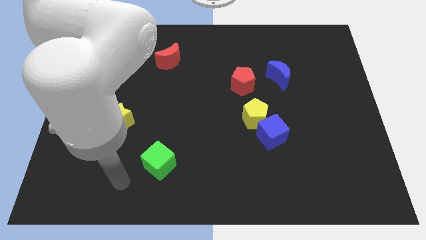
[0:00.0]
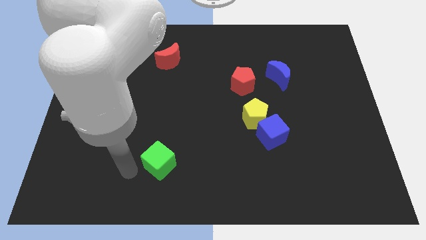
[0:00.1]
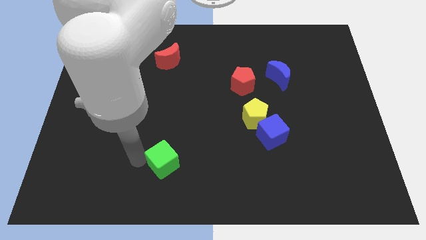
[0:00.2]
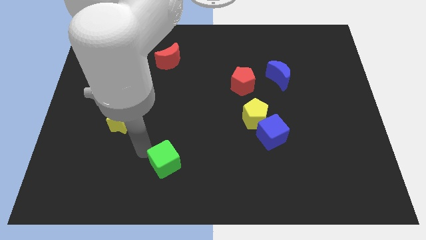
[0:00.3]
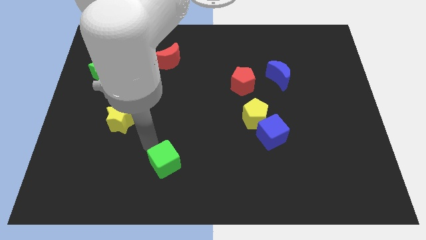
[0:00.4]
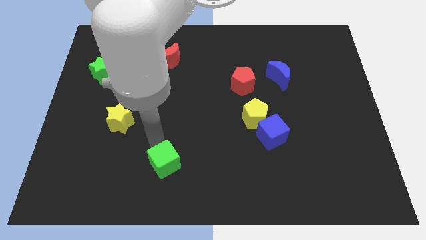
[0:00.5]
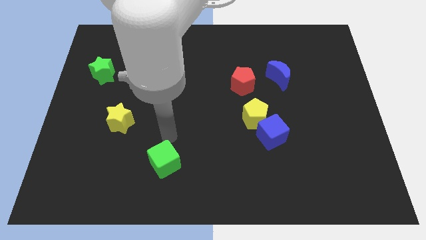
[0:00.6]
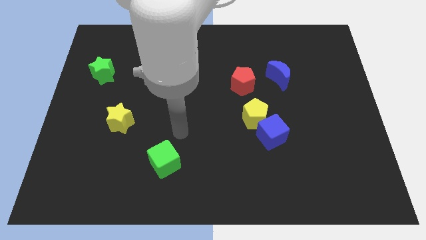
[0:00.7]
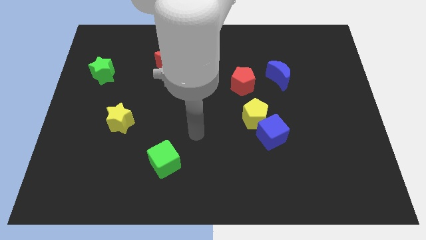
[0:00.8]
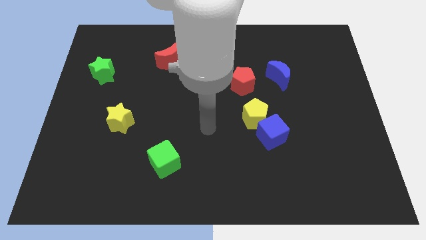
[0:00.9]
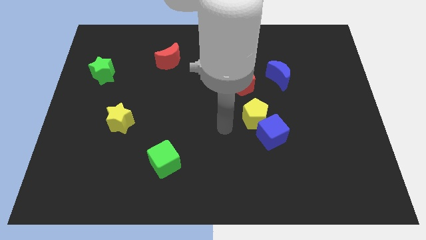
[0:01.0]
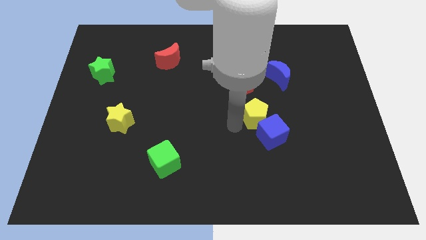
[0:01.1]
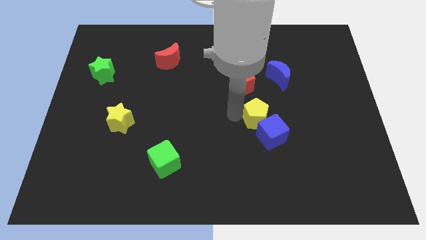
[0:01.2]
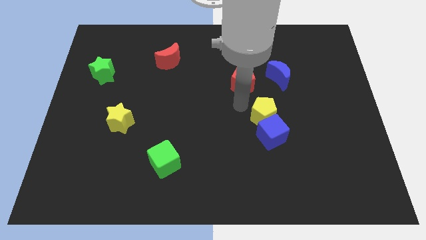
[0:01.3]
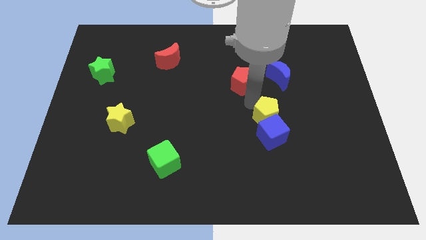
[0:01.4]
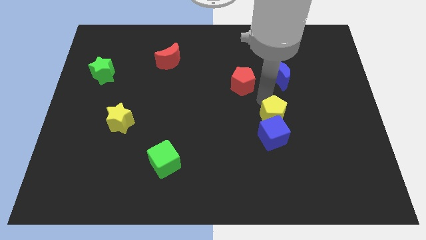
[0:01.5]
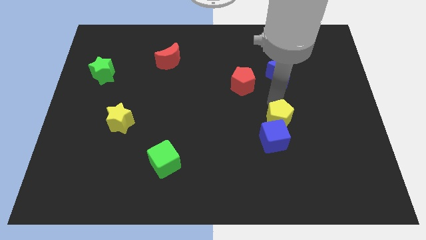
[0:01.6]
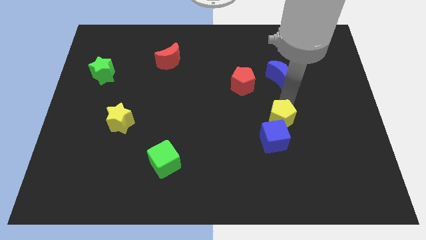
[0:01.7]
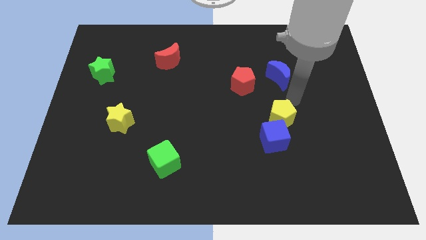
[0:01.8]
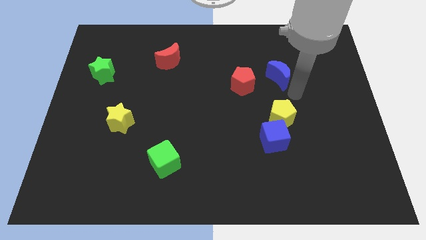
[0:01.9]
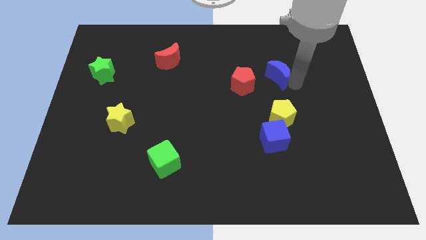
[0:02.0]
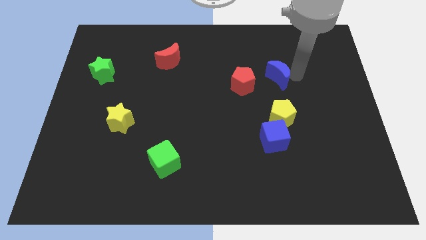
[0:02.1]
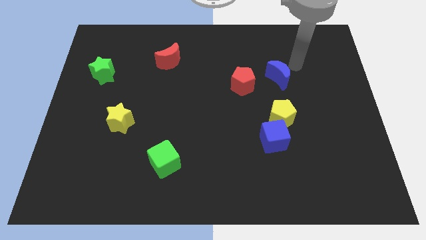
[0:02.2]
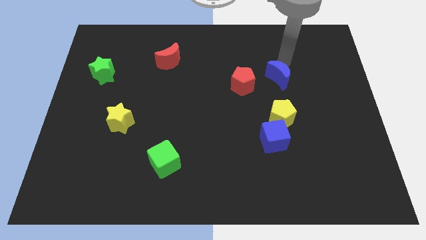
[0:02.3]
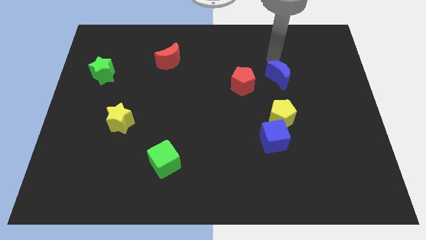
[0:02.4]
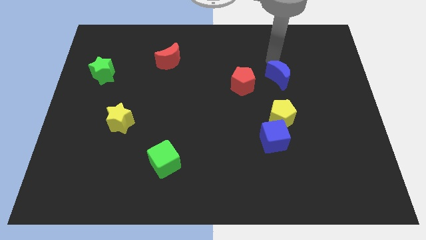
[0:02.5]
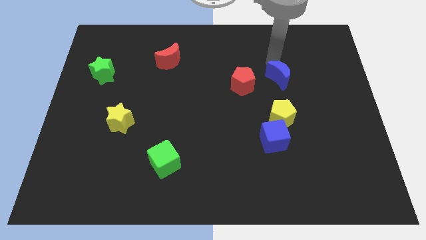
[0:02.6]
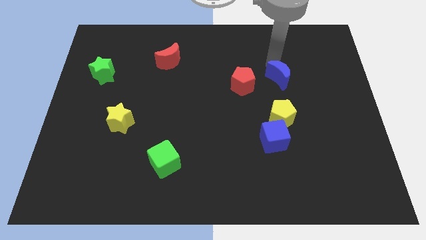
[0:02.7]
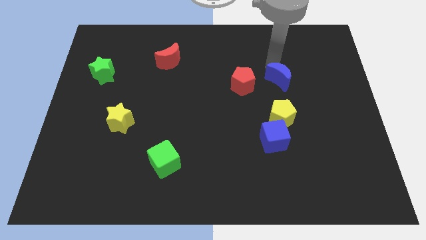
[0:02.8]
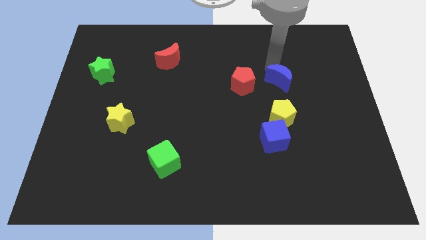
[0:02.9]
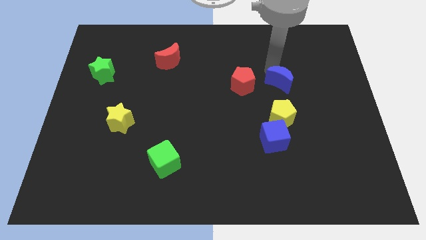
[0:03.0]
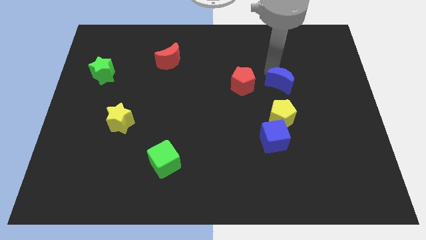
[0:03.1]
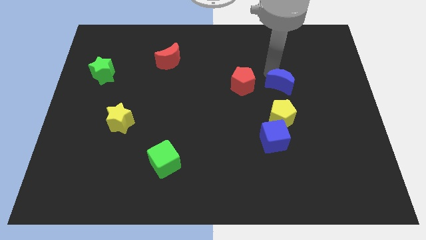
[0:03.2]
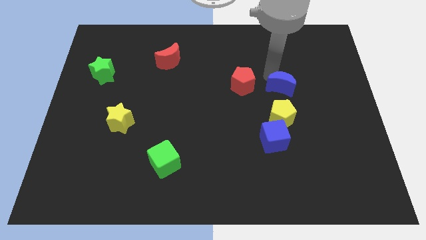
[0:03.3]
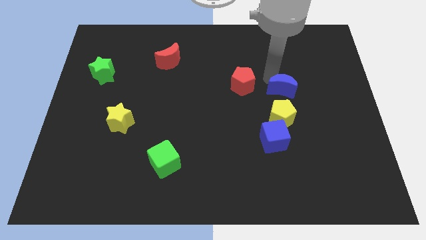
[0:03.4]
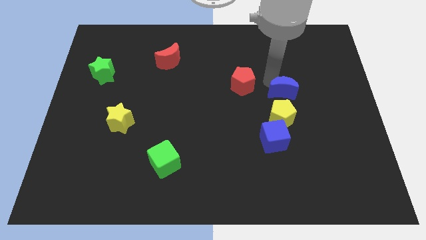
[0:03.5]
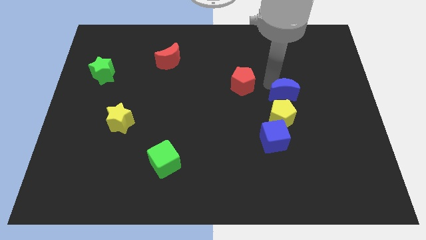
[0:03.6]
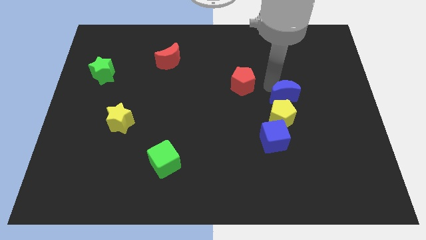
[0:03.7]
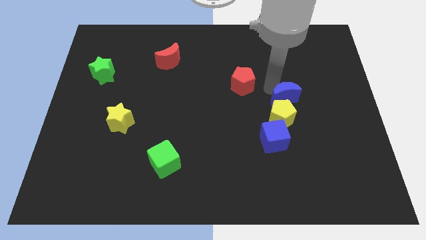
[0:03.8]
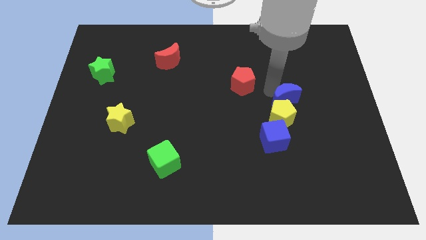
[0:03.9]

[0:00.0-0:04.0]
push the blue moon down a little bit

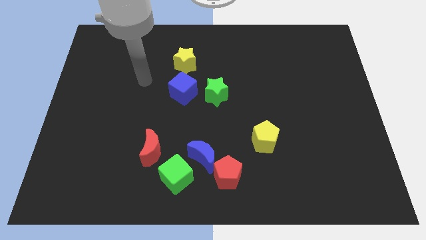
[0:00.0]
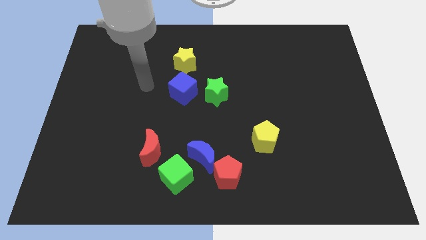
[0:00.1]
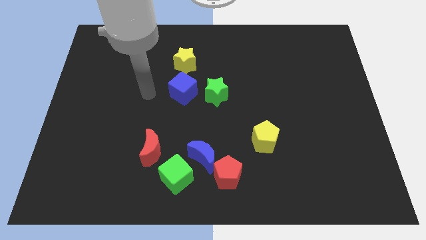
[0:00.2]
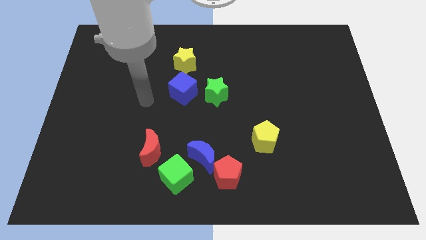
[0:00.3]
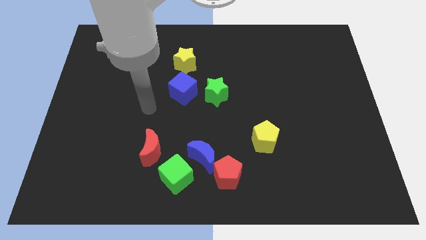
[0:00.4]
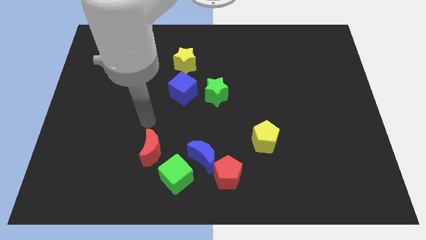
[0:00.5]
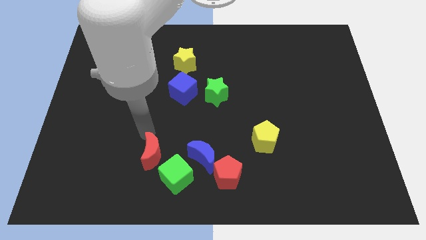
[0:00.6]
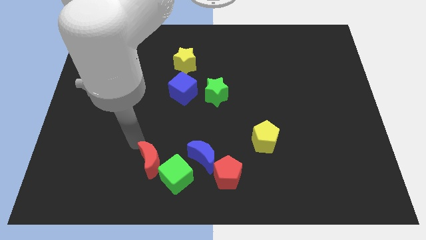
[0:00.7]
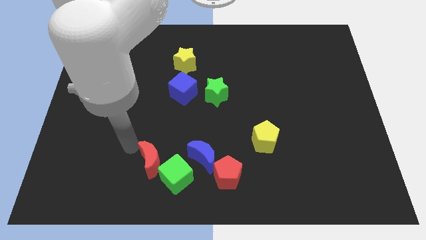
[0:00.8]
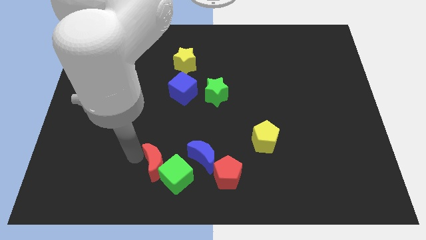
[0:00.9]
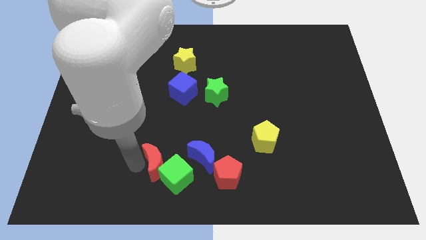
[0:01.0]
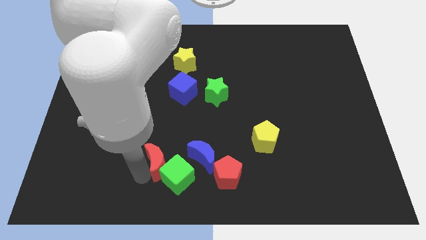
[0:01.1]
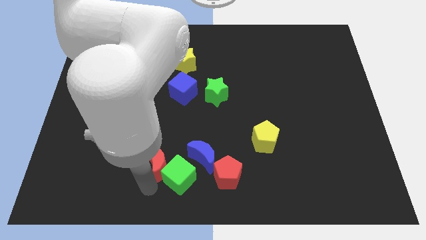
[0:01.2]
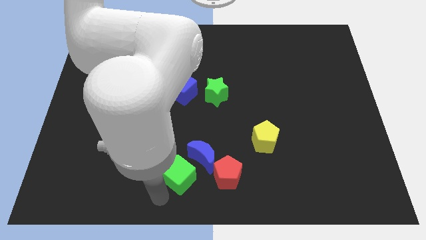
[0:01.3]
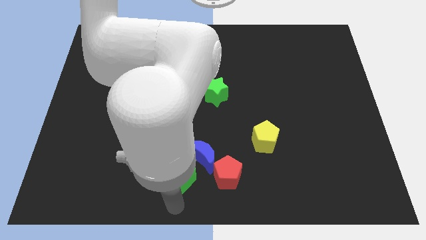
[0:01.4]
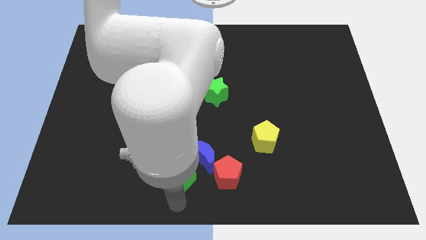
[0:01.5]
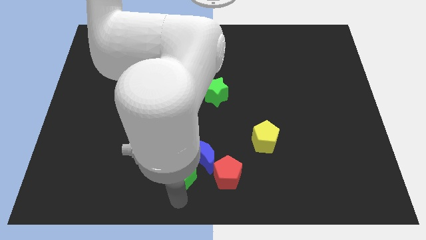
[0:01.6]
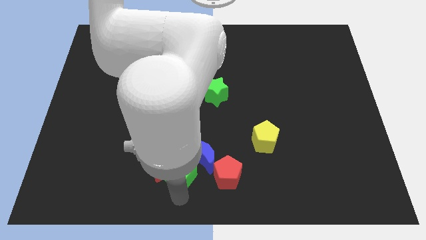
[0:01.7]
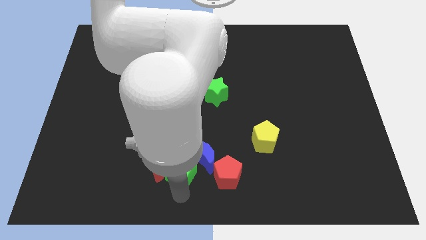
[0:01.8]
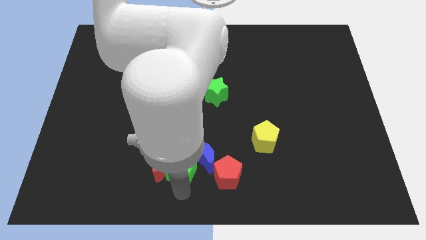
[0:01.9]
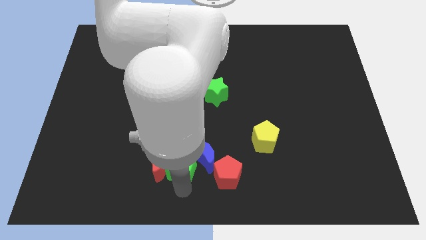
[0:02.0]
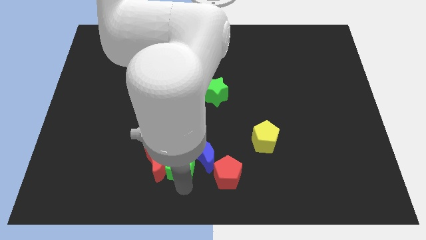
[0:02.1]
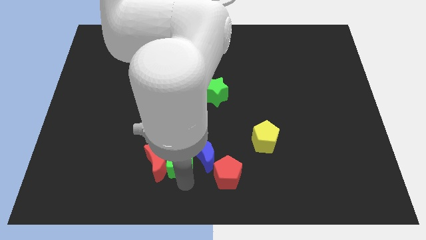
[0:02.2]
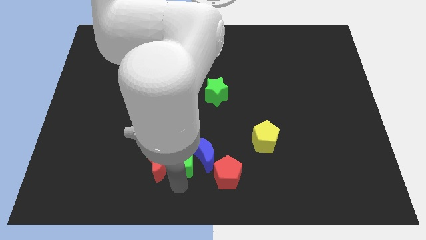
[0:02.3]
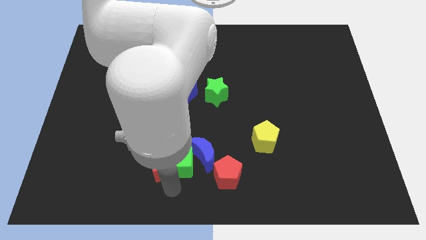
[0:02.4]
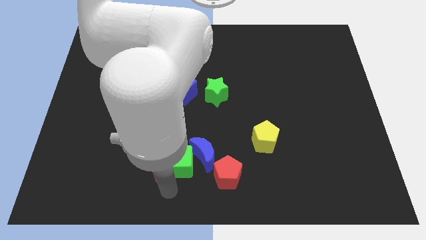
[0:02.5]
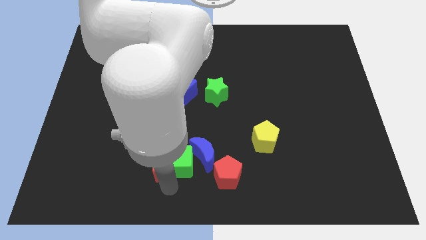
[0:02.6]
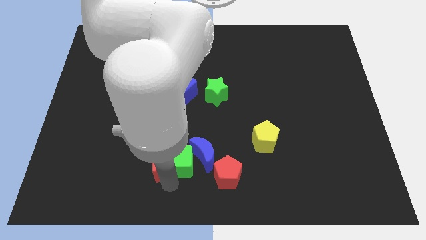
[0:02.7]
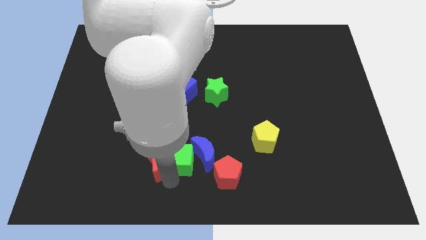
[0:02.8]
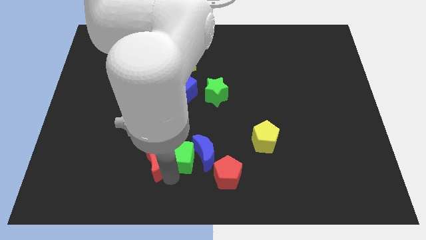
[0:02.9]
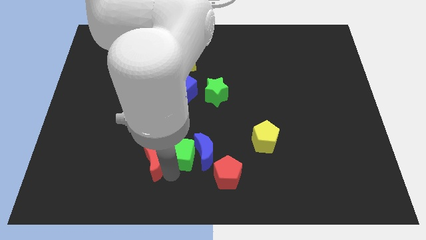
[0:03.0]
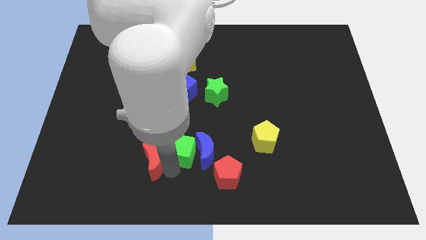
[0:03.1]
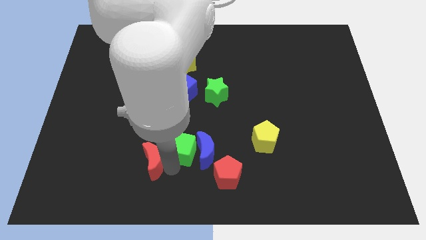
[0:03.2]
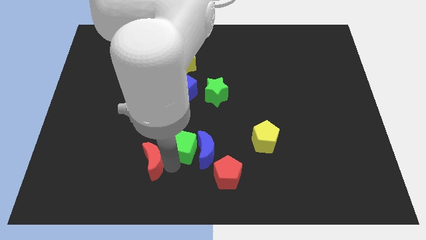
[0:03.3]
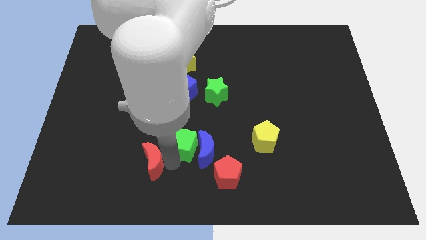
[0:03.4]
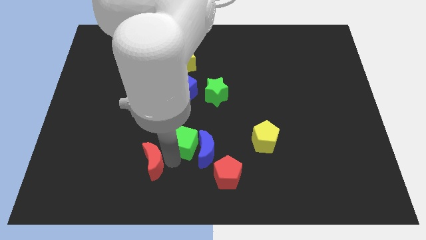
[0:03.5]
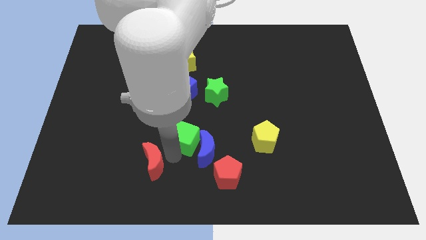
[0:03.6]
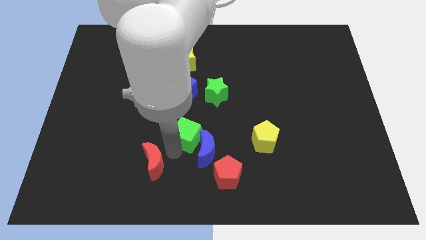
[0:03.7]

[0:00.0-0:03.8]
slide the green cube a little bit up and right

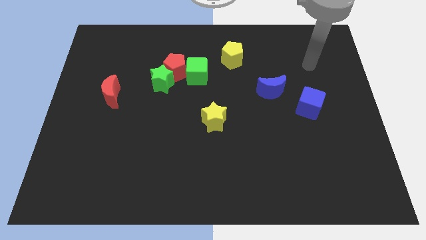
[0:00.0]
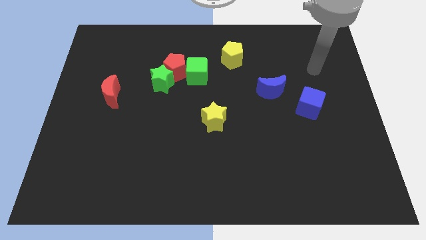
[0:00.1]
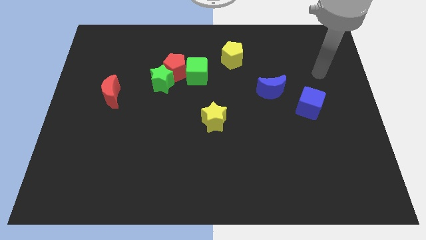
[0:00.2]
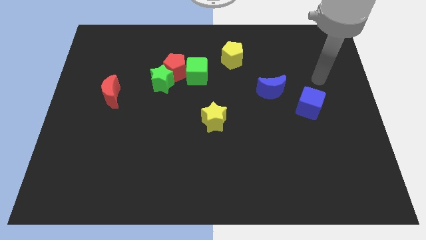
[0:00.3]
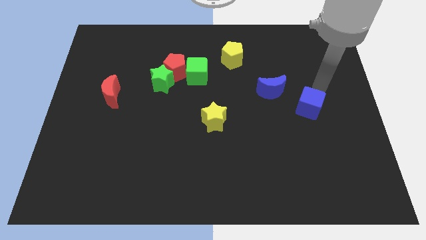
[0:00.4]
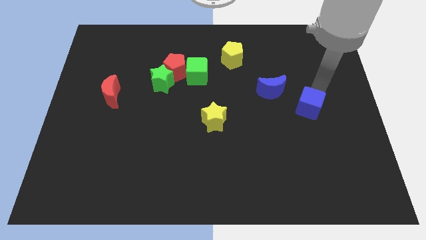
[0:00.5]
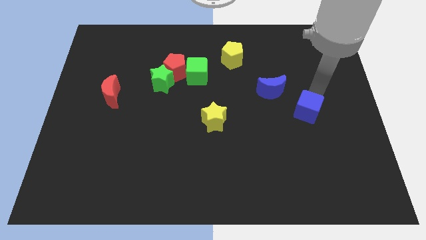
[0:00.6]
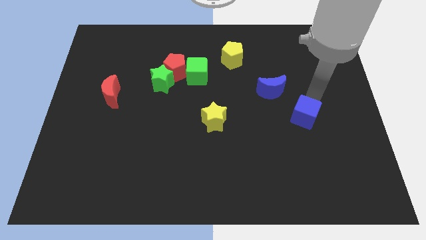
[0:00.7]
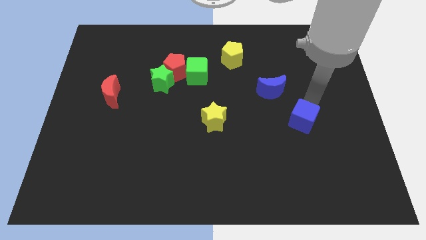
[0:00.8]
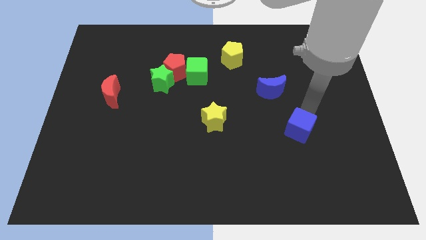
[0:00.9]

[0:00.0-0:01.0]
slightly slide the blue cube diagonally down and to the left
